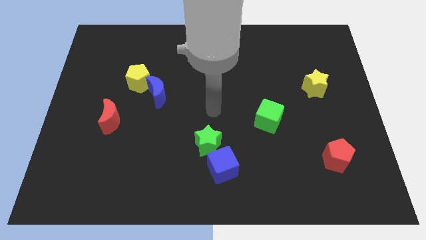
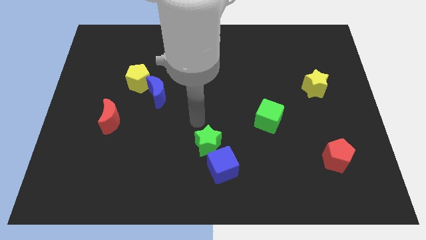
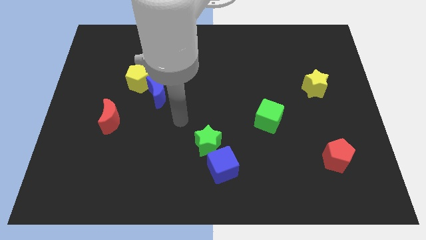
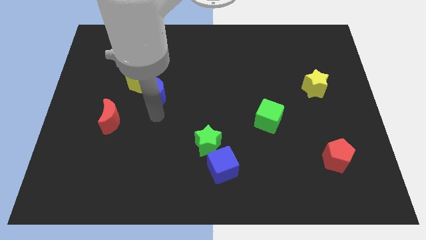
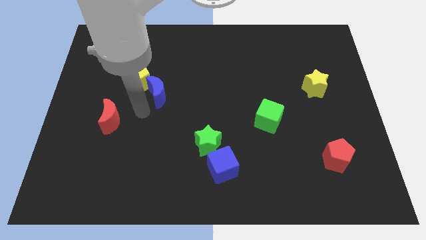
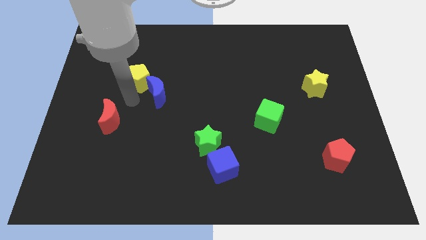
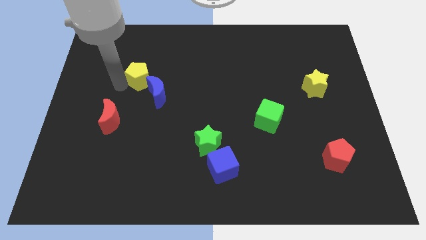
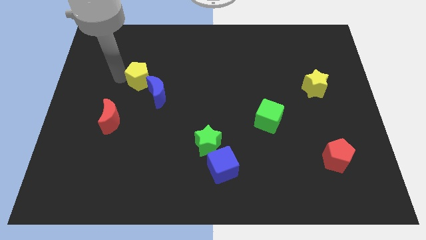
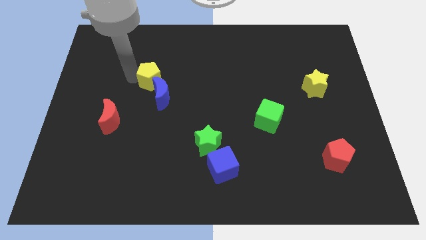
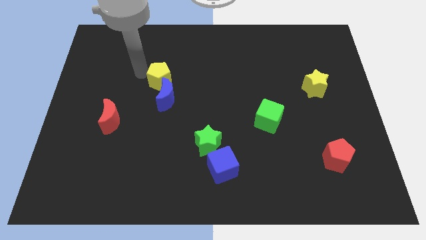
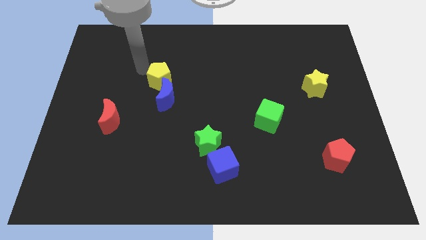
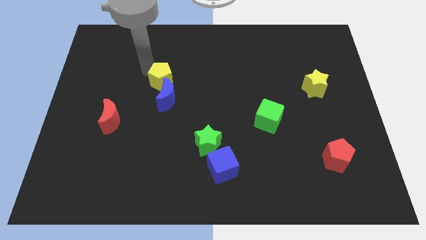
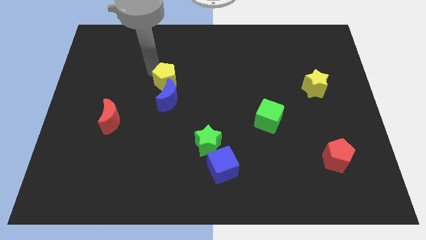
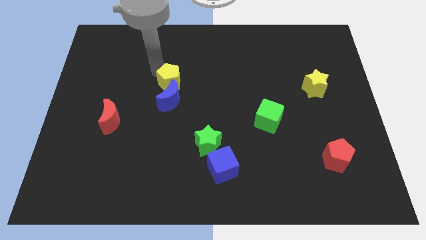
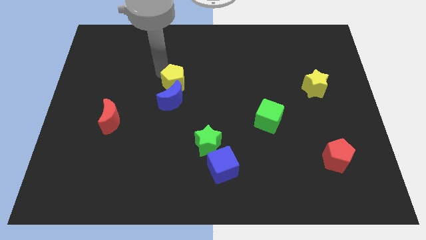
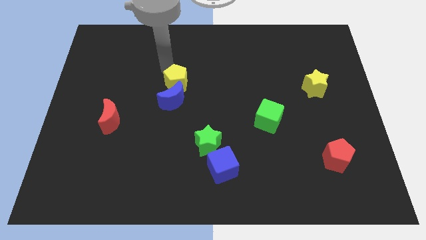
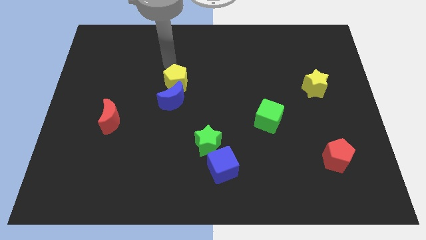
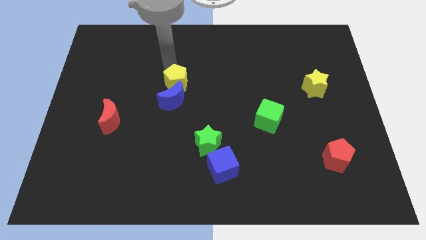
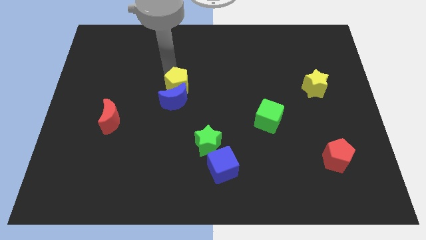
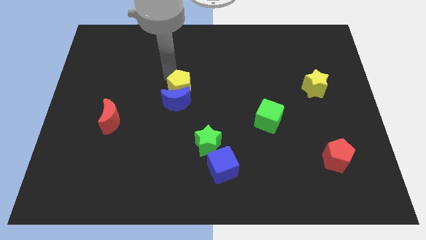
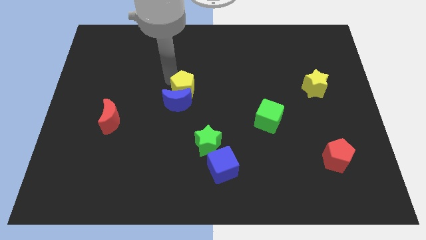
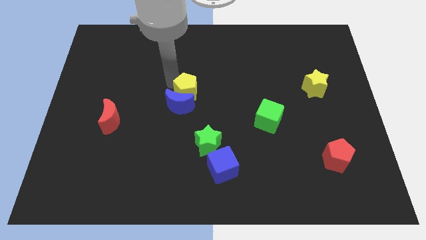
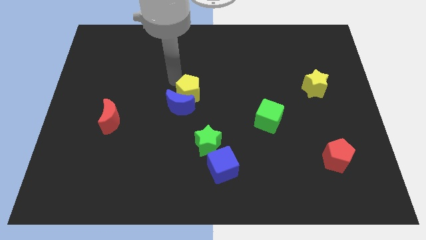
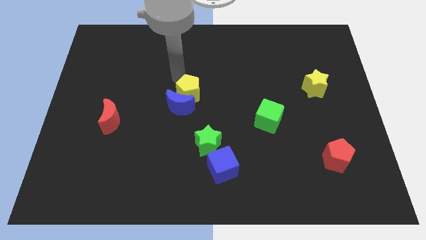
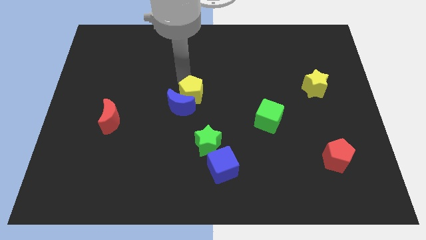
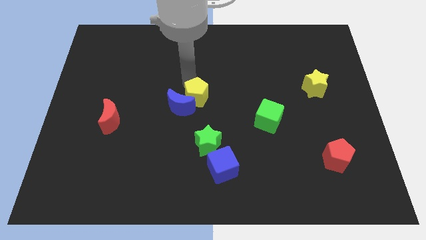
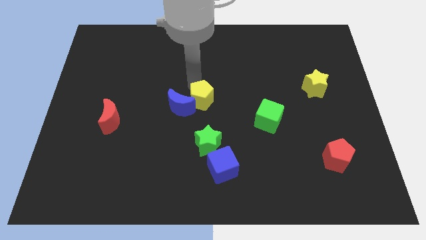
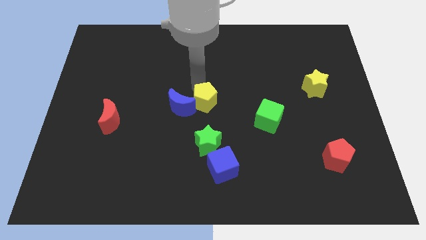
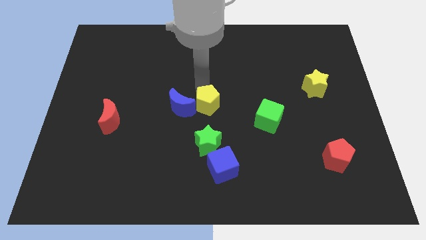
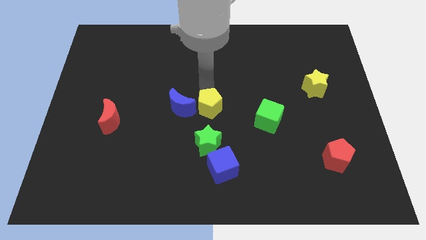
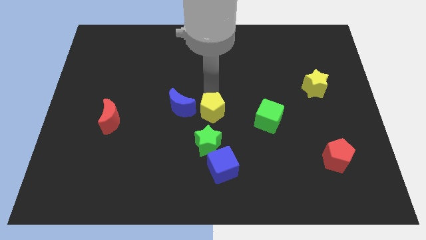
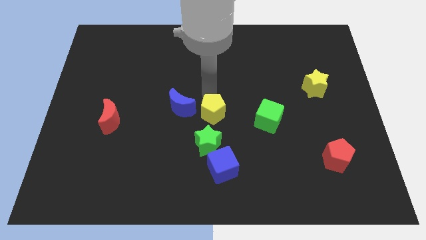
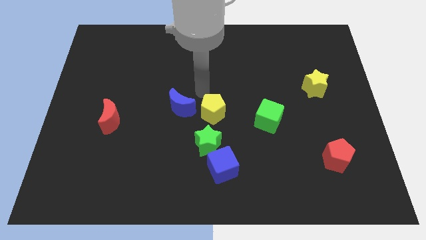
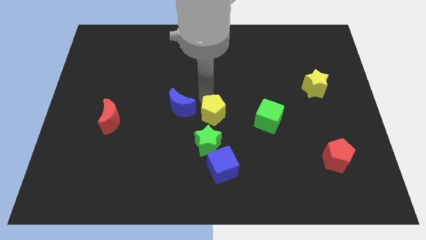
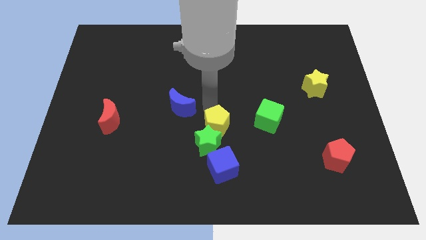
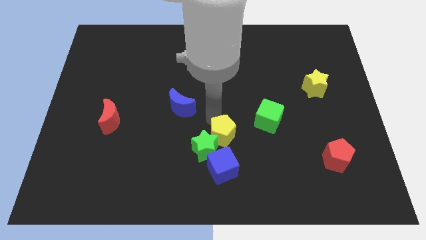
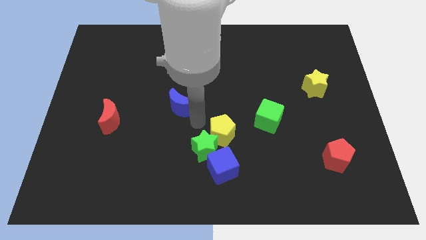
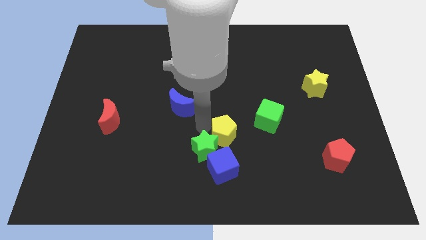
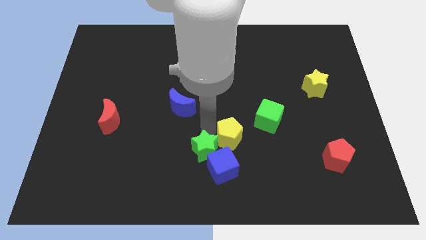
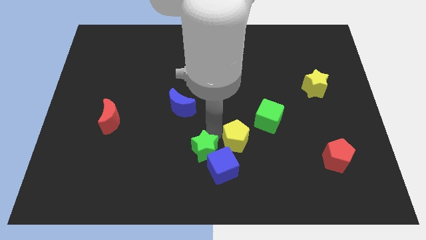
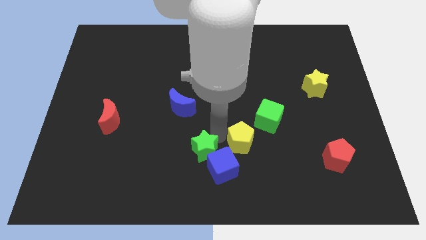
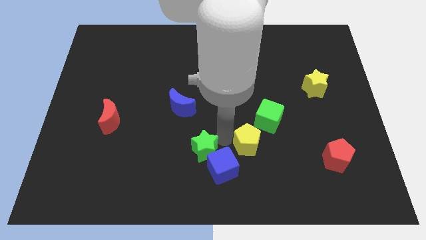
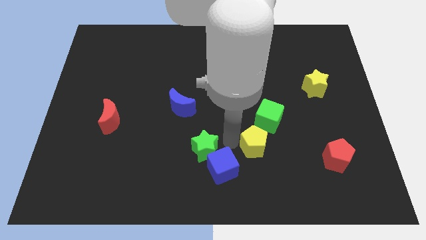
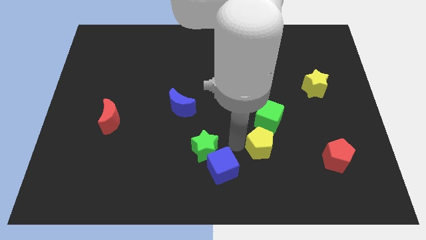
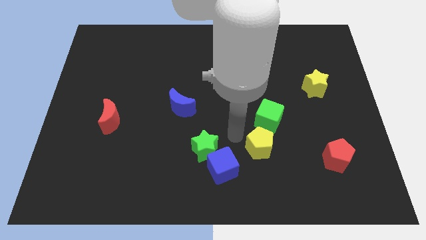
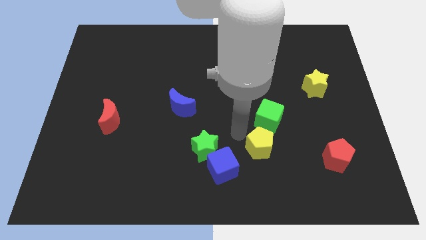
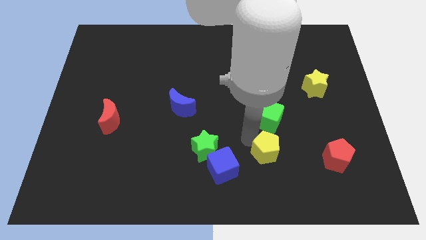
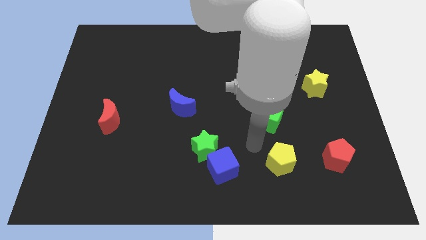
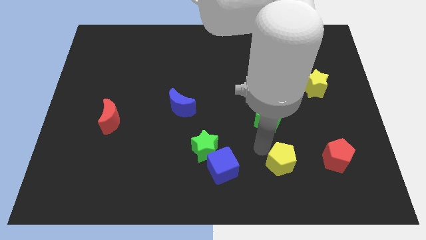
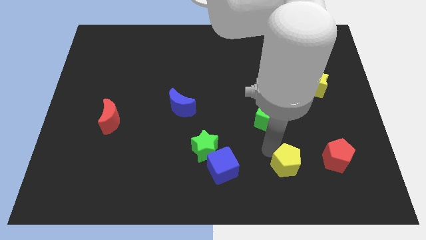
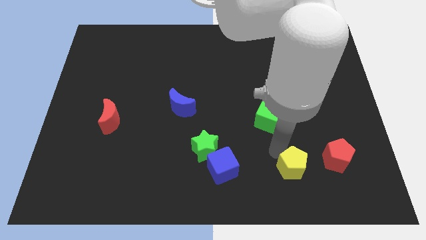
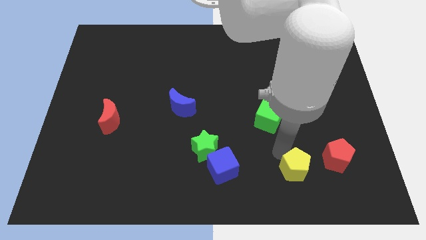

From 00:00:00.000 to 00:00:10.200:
move the yellow pentagon diagonally down and to the left of the red pentagon

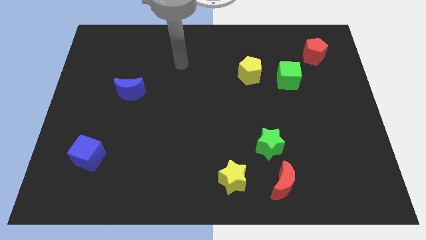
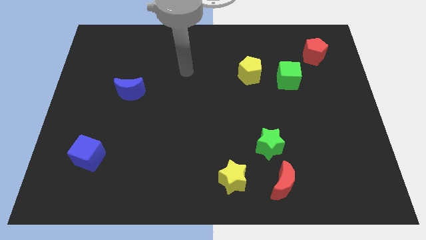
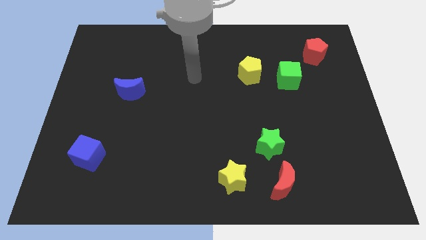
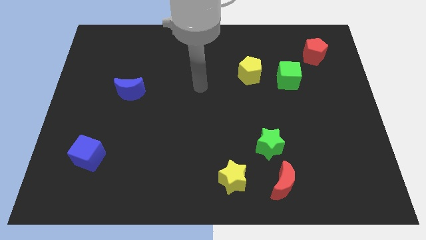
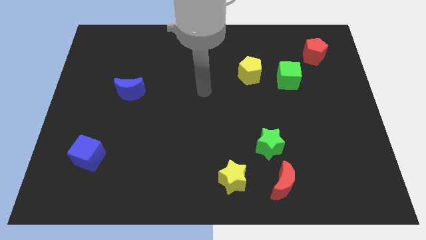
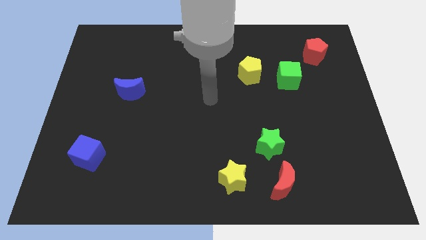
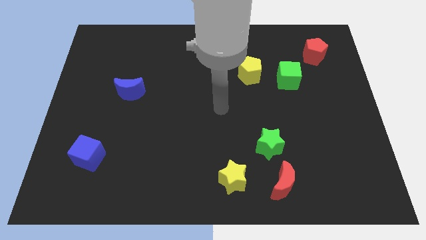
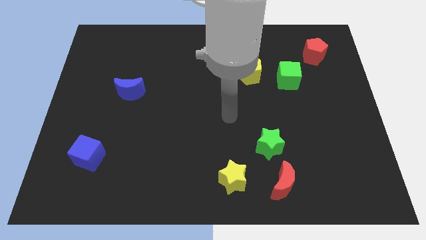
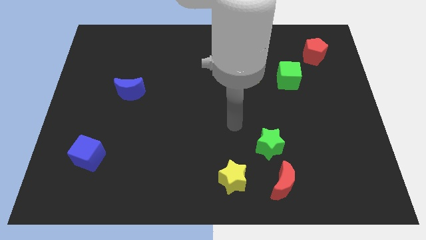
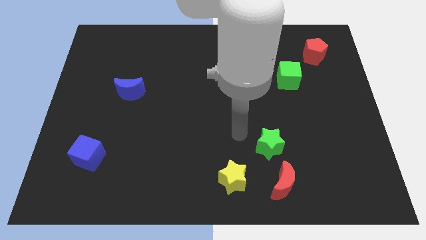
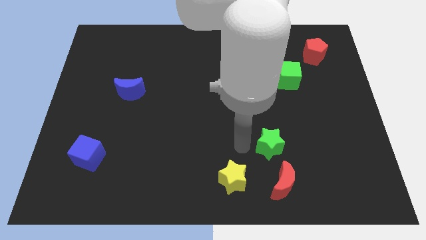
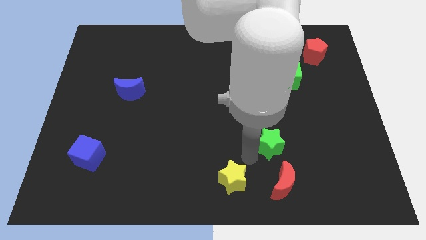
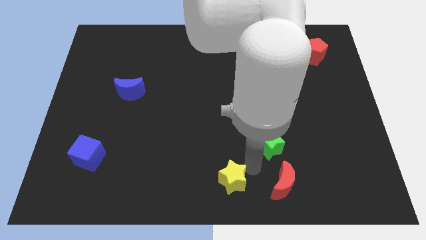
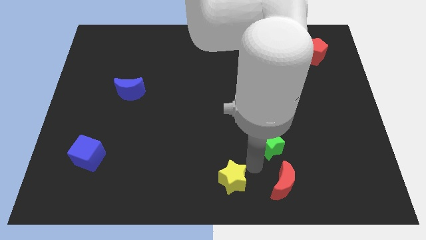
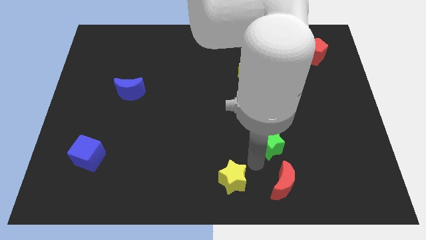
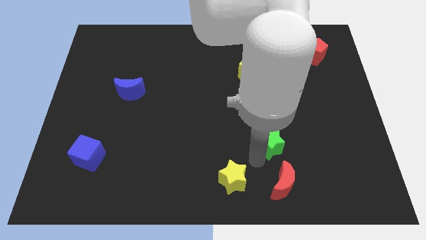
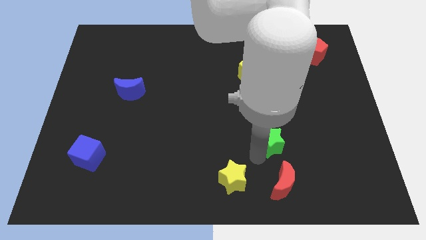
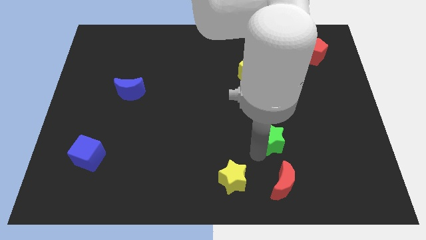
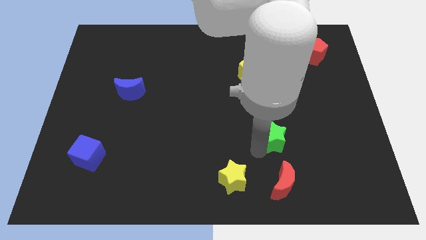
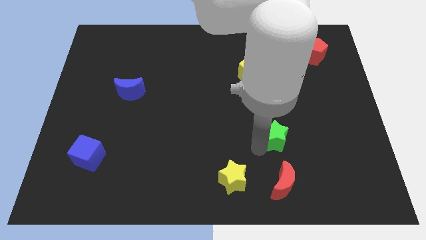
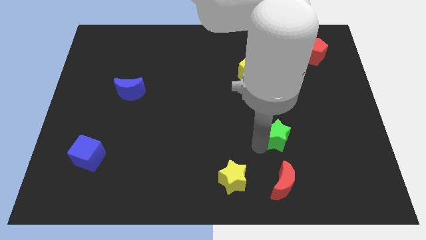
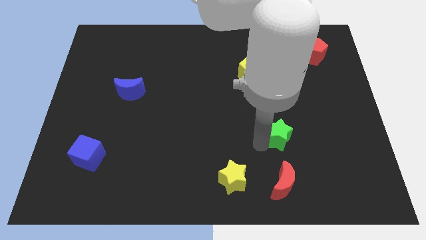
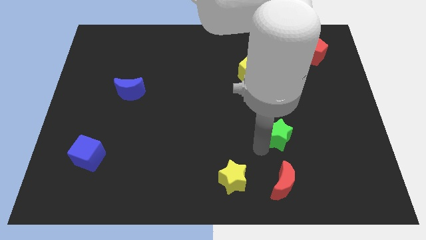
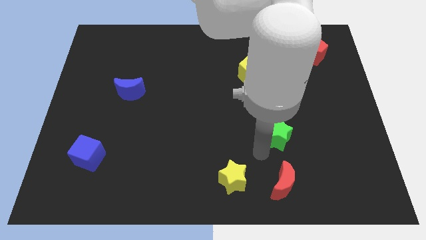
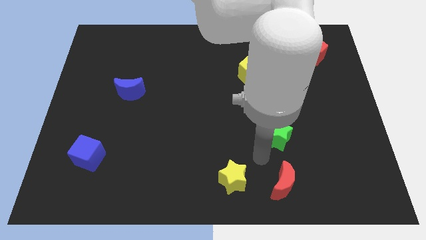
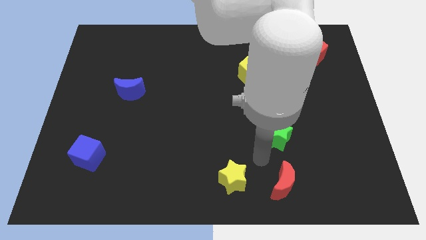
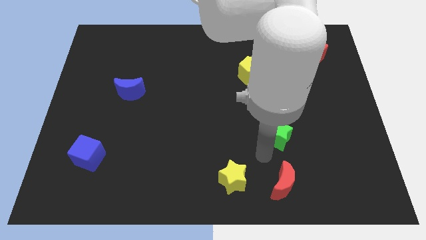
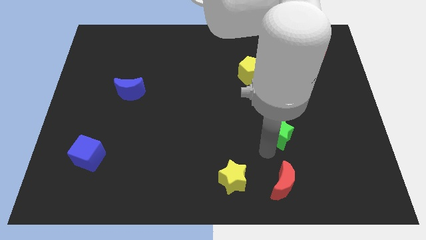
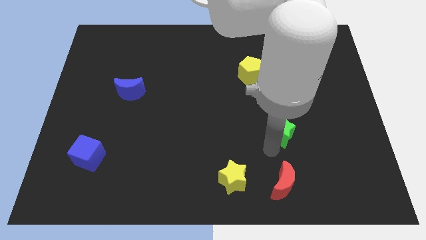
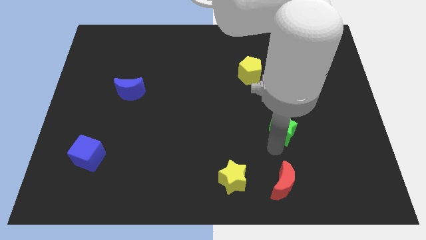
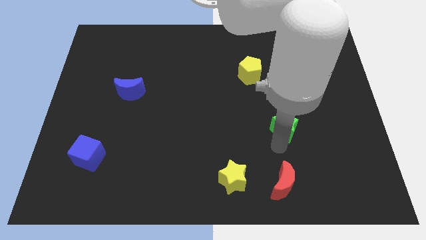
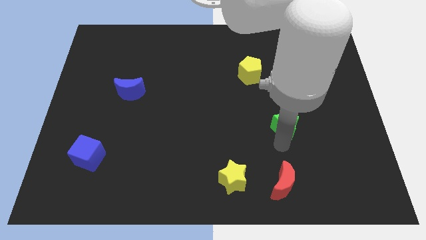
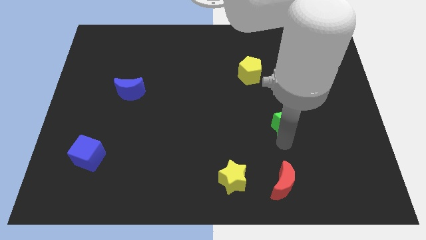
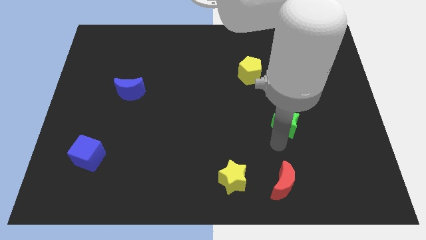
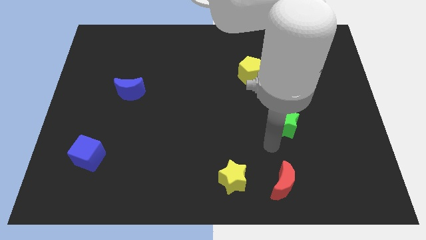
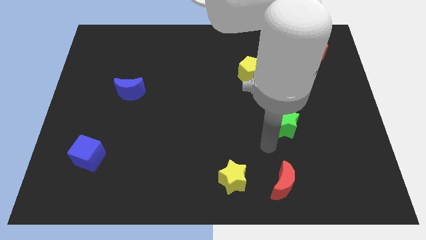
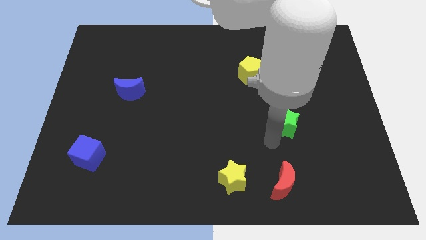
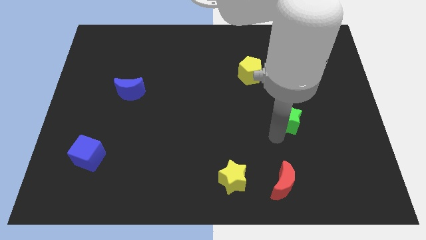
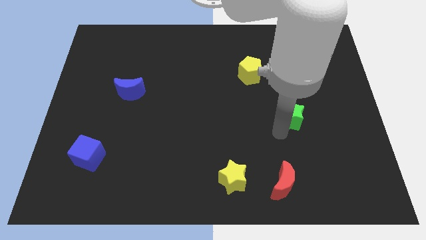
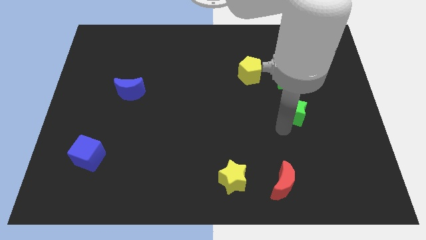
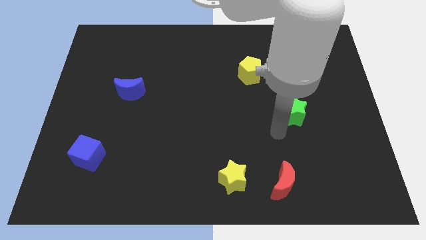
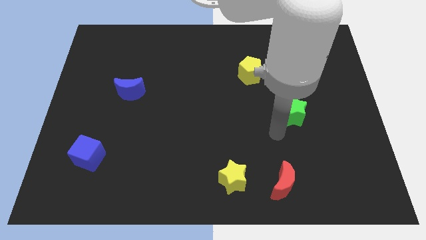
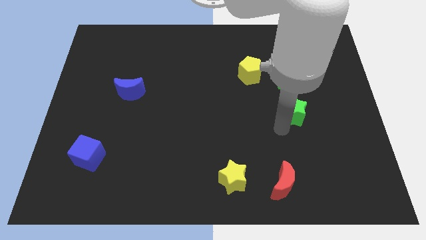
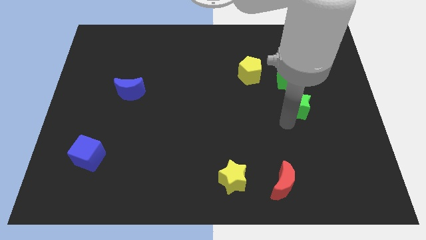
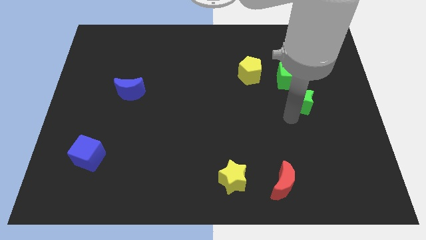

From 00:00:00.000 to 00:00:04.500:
push the green star diagonally down and to the right of the green cube
